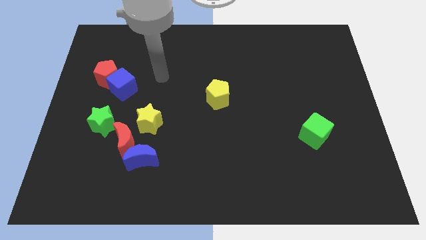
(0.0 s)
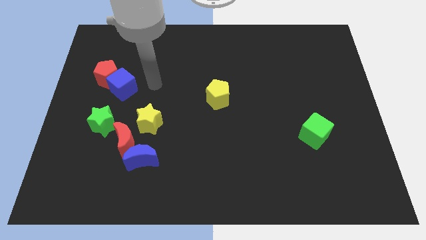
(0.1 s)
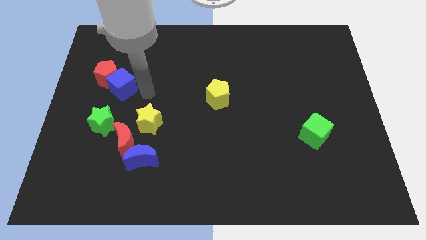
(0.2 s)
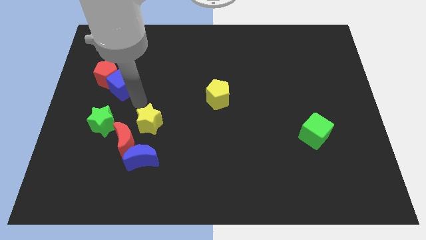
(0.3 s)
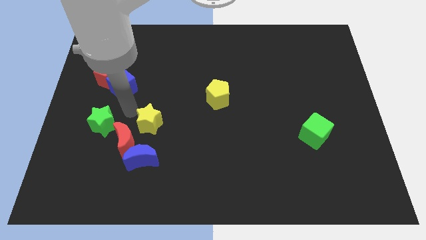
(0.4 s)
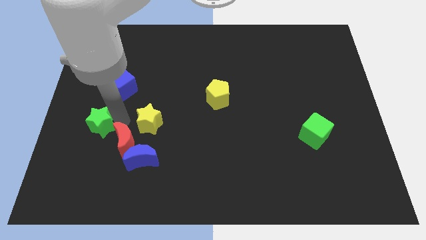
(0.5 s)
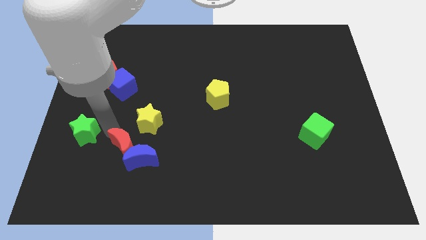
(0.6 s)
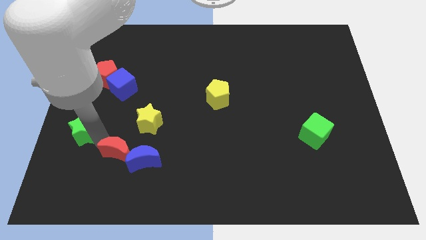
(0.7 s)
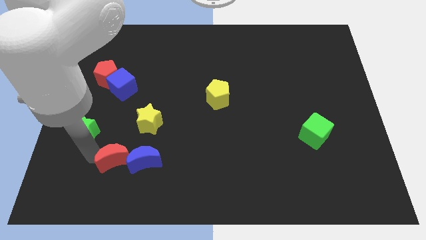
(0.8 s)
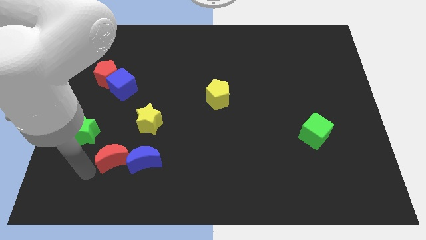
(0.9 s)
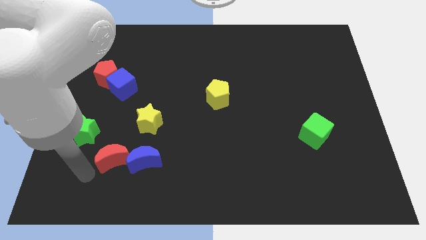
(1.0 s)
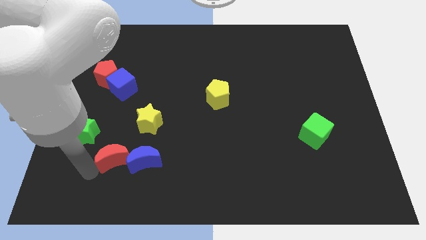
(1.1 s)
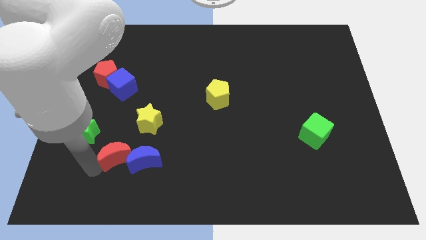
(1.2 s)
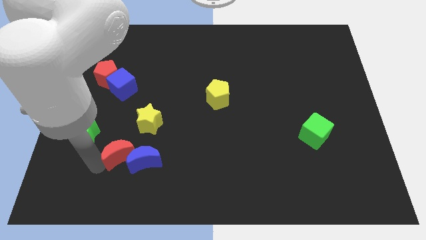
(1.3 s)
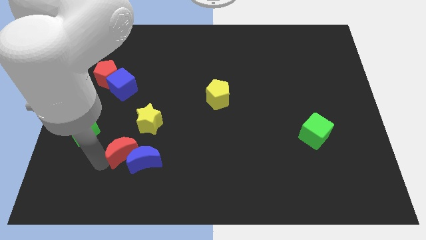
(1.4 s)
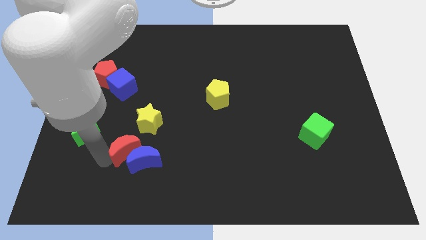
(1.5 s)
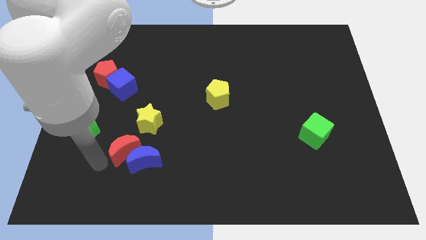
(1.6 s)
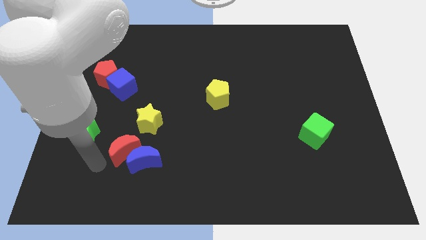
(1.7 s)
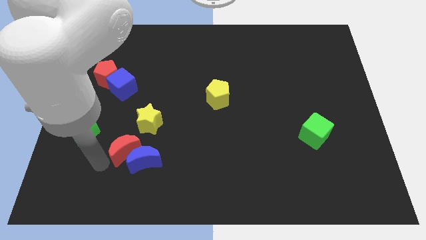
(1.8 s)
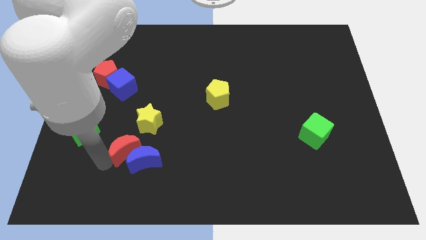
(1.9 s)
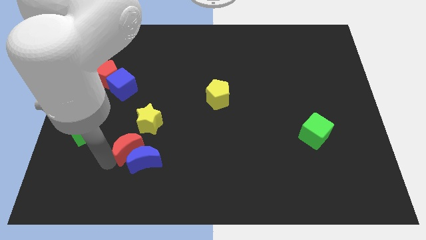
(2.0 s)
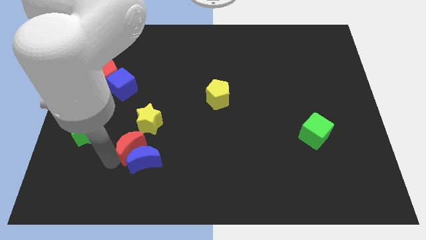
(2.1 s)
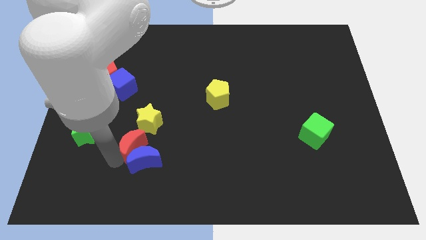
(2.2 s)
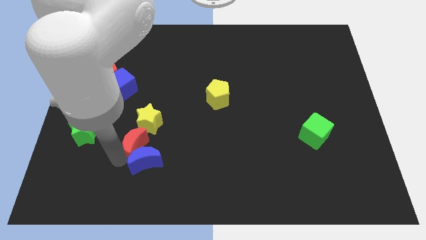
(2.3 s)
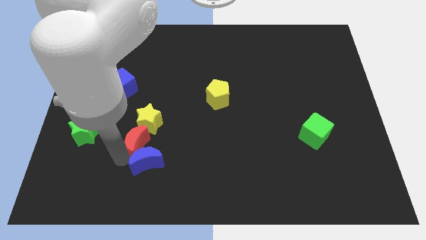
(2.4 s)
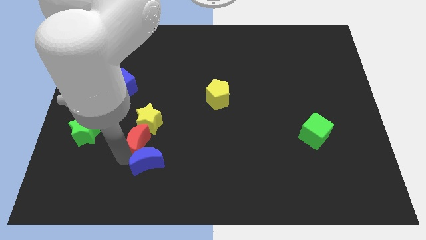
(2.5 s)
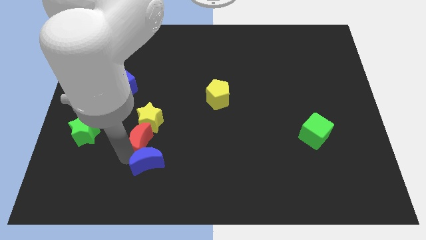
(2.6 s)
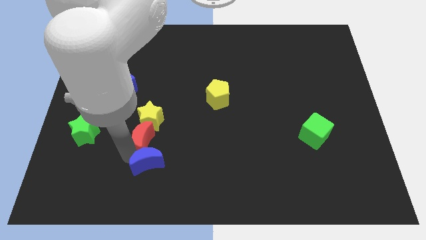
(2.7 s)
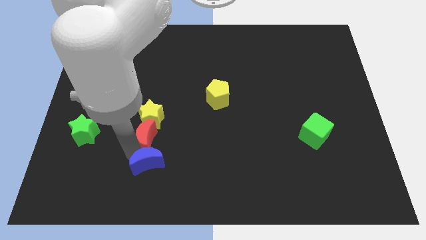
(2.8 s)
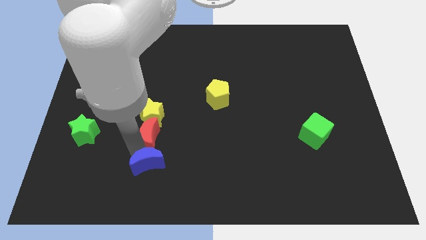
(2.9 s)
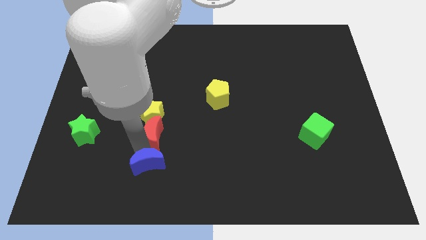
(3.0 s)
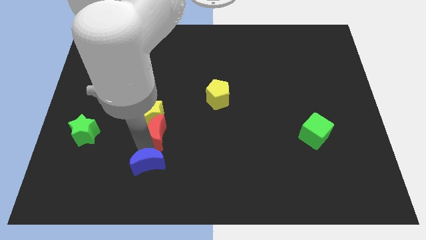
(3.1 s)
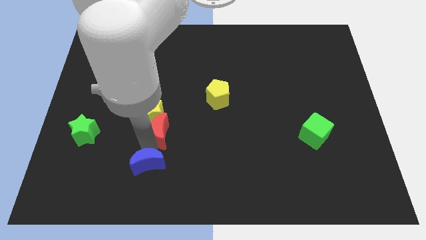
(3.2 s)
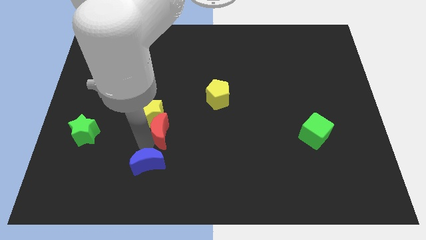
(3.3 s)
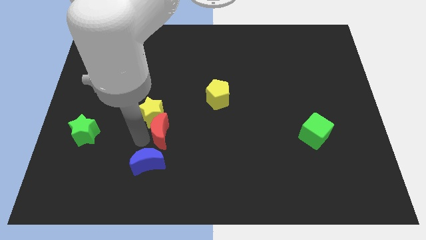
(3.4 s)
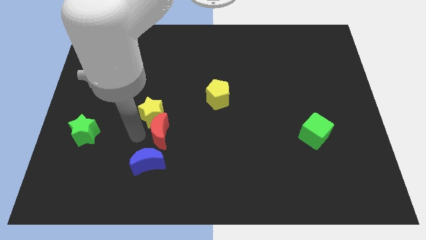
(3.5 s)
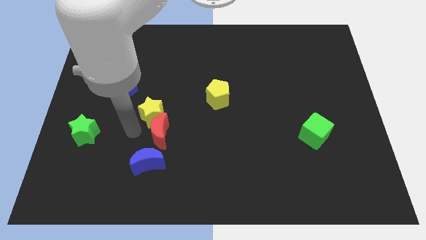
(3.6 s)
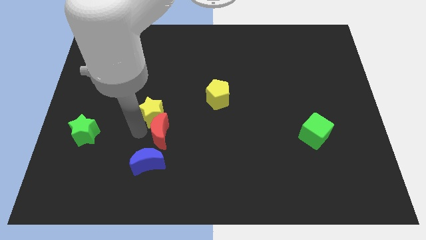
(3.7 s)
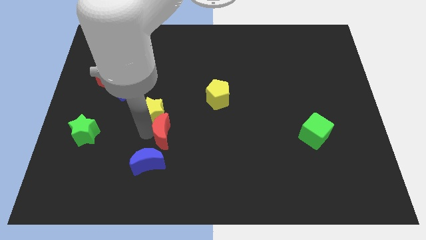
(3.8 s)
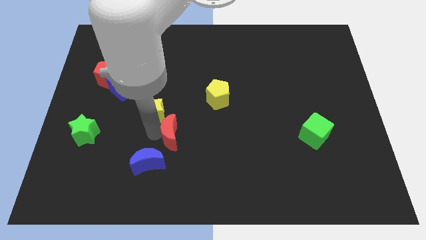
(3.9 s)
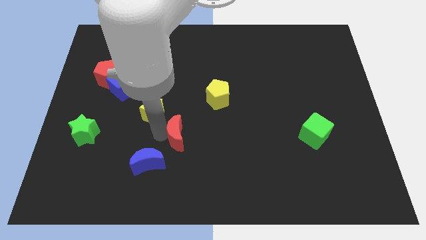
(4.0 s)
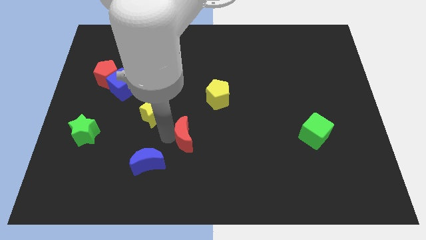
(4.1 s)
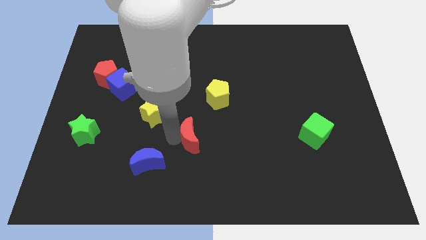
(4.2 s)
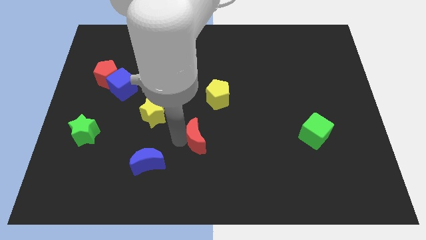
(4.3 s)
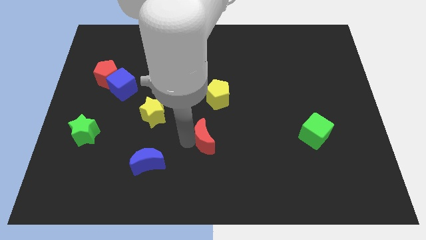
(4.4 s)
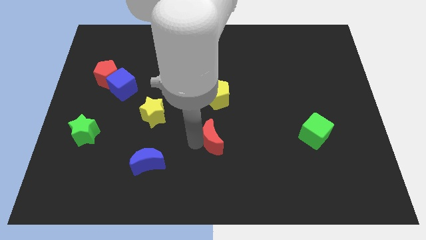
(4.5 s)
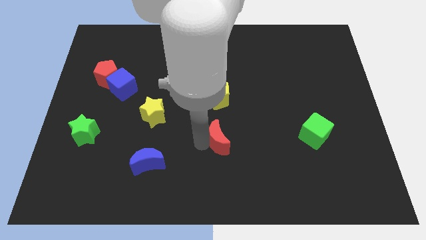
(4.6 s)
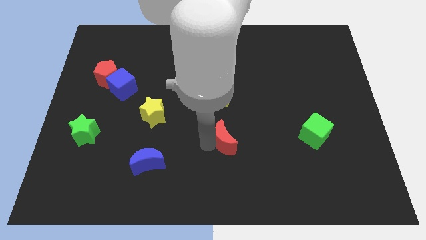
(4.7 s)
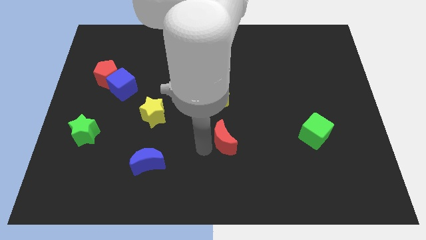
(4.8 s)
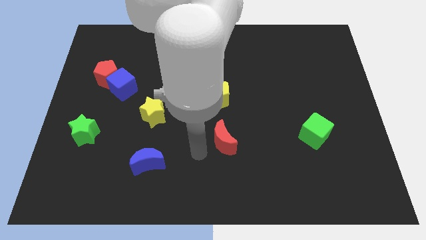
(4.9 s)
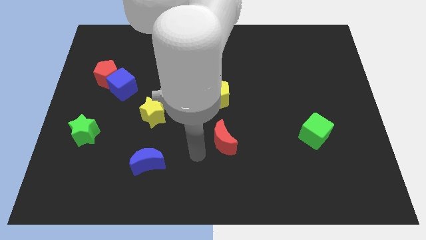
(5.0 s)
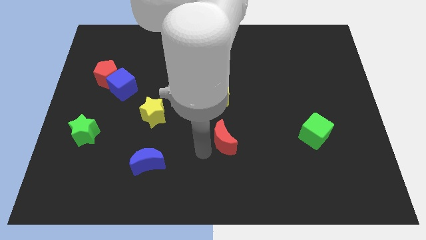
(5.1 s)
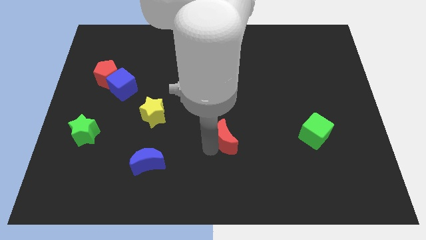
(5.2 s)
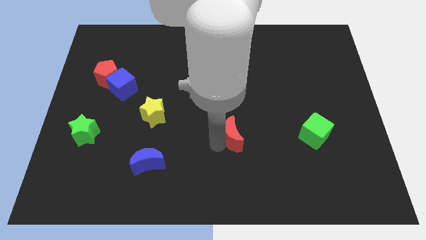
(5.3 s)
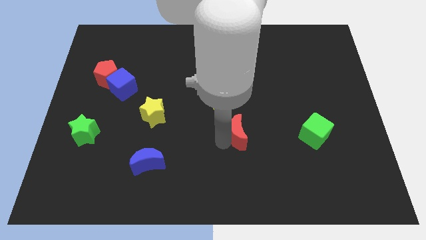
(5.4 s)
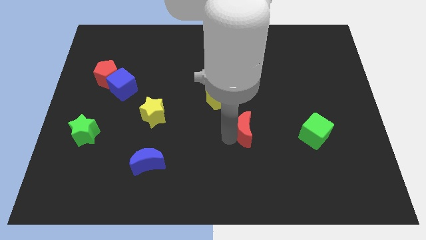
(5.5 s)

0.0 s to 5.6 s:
push the red moon left of the green cube

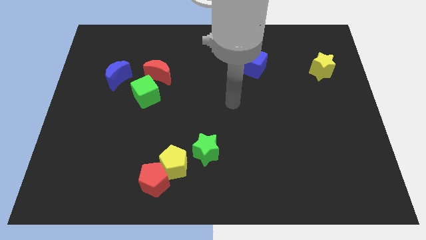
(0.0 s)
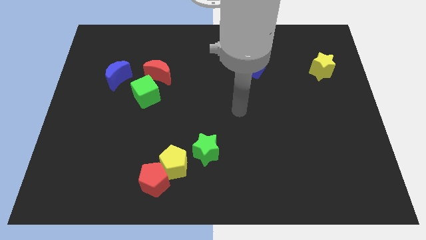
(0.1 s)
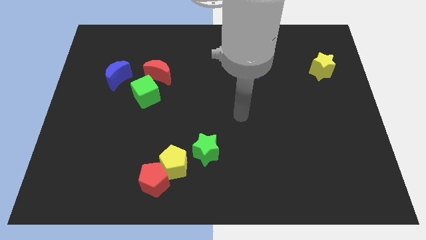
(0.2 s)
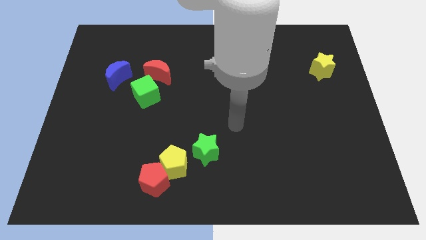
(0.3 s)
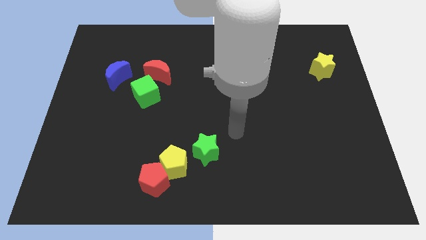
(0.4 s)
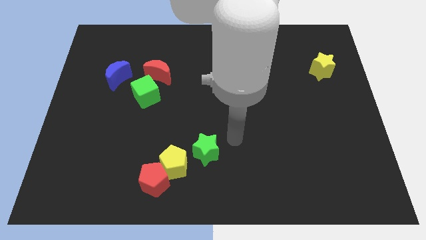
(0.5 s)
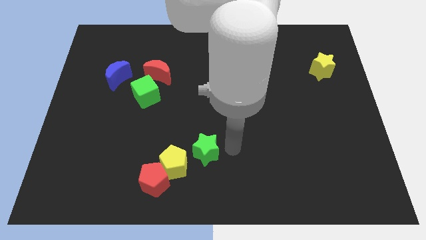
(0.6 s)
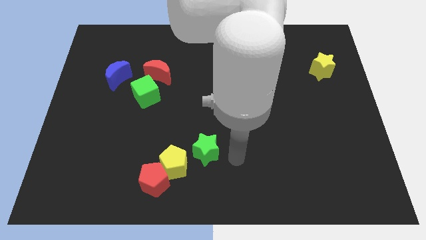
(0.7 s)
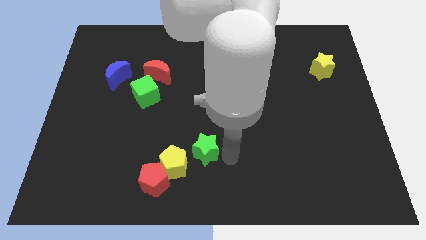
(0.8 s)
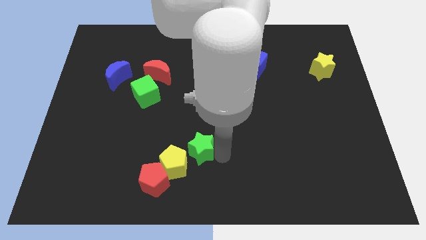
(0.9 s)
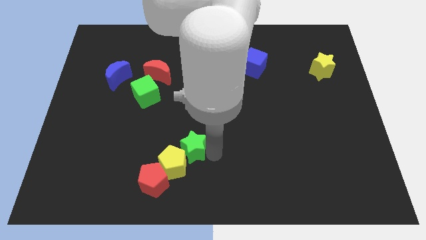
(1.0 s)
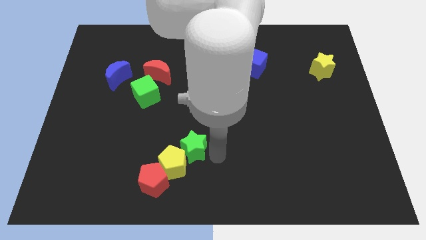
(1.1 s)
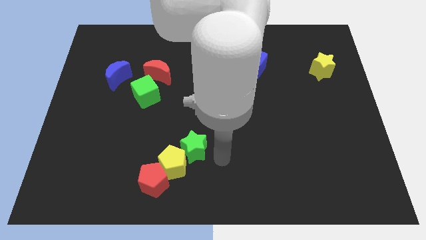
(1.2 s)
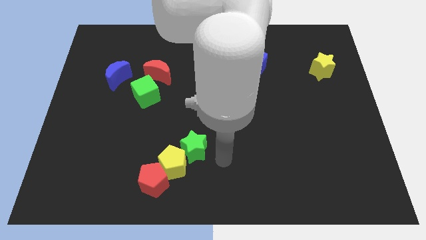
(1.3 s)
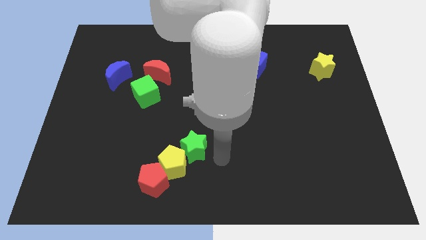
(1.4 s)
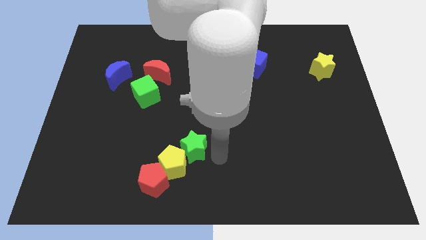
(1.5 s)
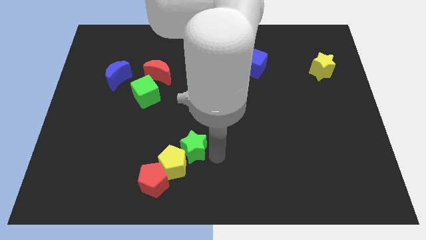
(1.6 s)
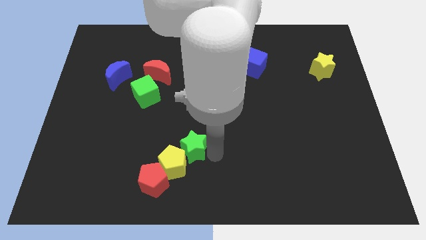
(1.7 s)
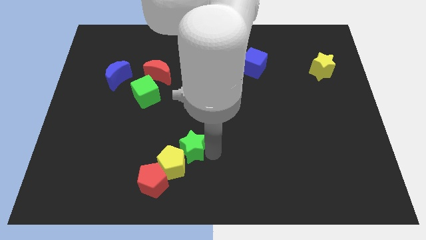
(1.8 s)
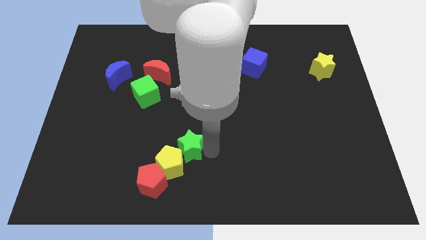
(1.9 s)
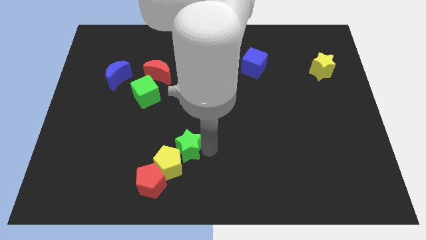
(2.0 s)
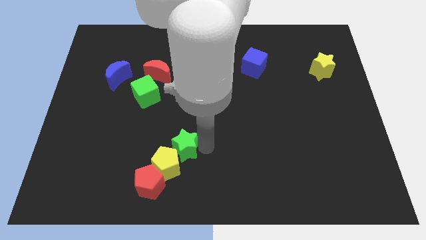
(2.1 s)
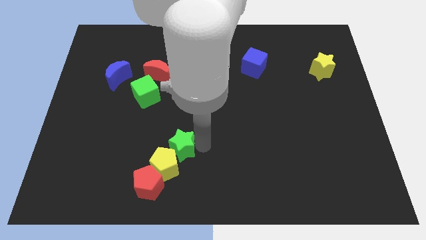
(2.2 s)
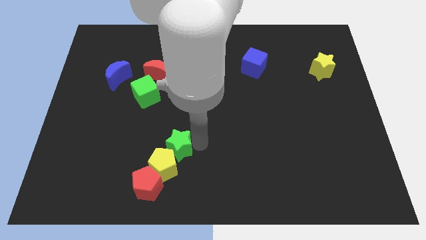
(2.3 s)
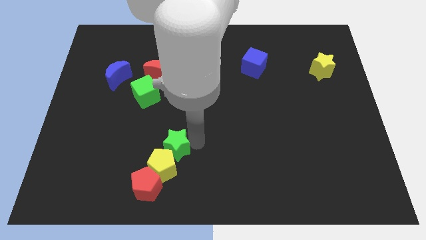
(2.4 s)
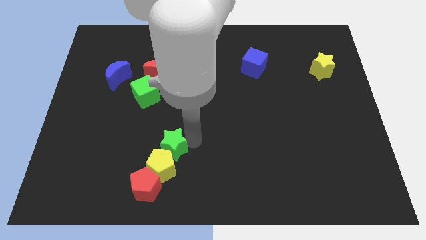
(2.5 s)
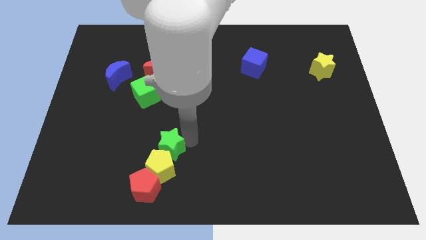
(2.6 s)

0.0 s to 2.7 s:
slide the green star above the red pentagon

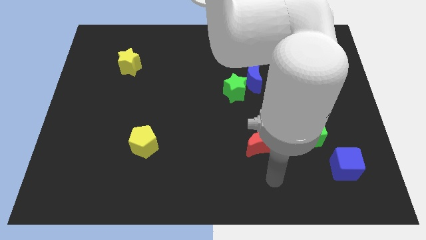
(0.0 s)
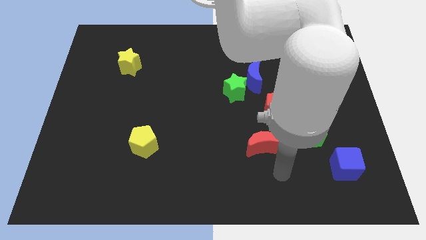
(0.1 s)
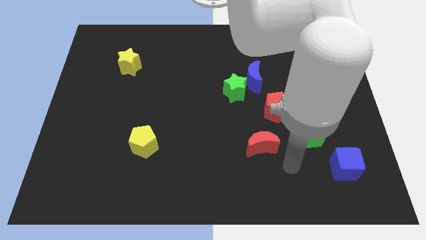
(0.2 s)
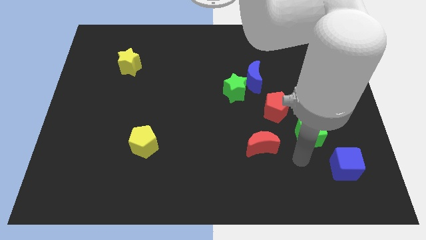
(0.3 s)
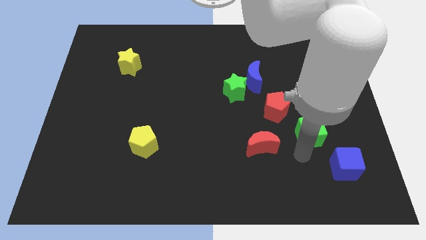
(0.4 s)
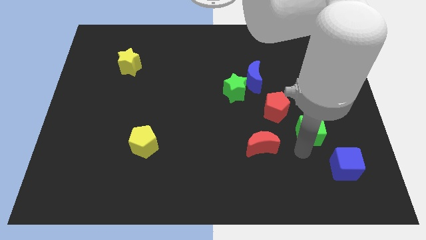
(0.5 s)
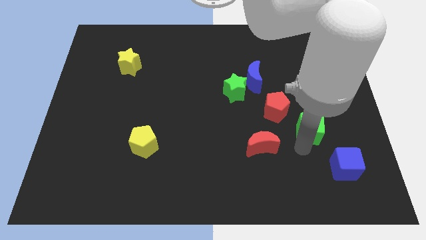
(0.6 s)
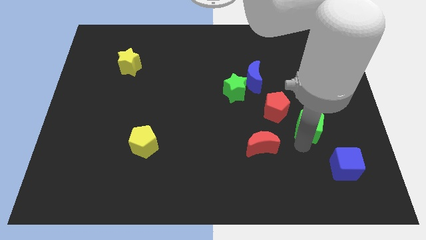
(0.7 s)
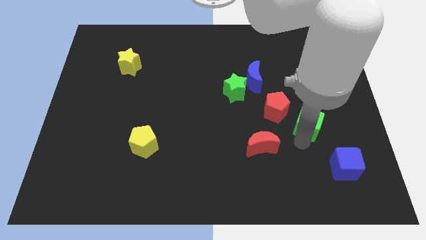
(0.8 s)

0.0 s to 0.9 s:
put the green cube to the right side of the red pentagon
